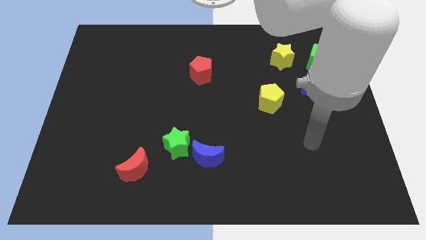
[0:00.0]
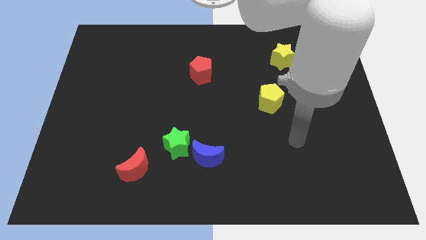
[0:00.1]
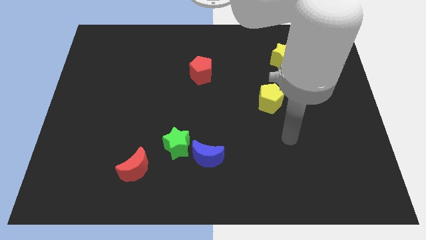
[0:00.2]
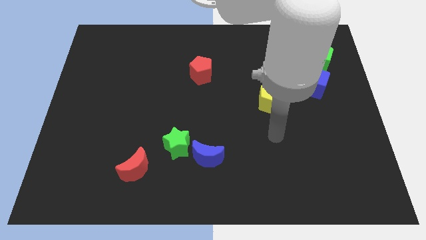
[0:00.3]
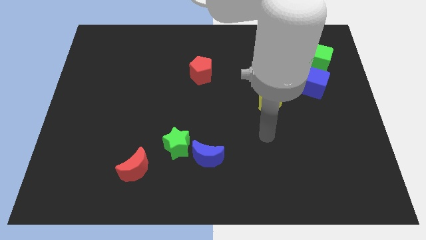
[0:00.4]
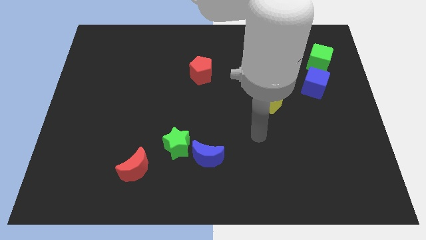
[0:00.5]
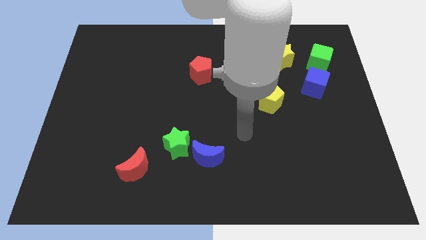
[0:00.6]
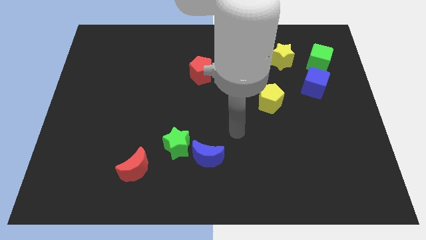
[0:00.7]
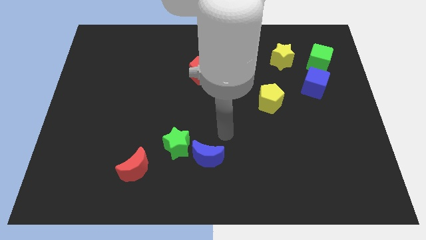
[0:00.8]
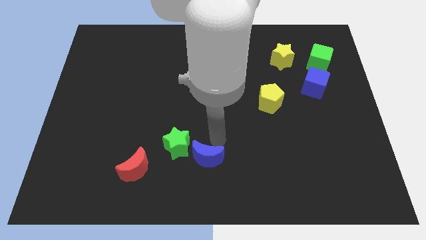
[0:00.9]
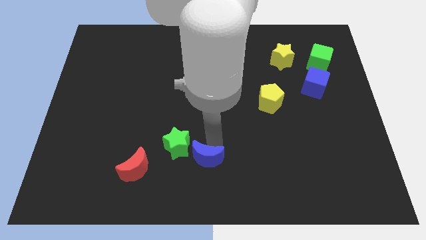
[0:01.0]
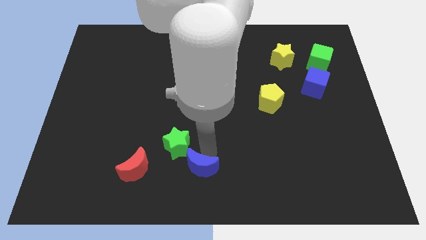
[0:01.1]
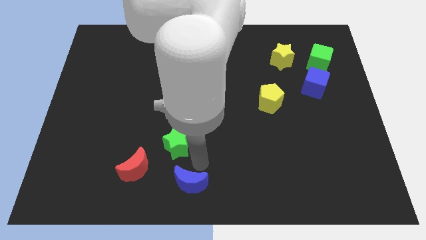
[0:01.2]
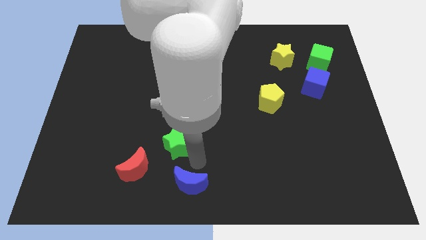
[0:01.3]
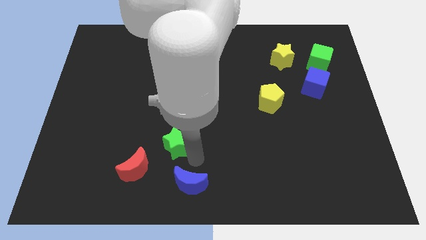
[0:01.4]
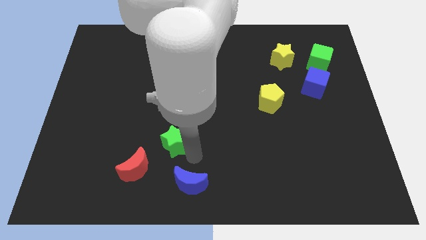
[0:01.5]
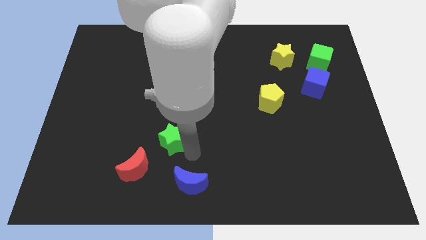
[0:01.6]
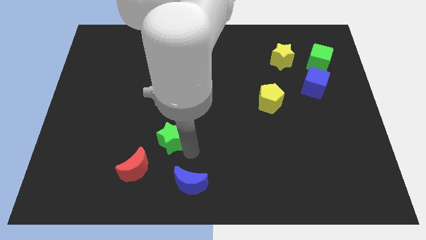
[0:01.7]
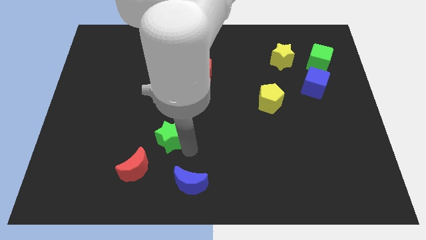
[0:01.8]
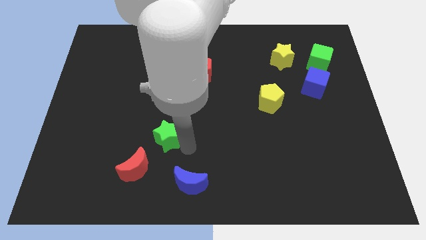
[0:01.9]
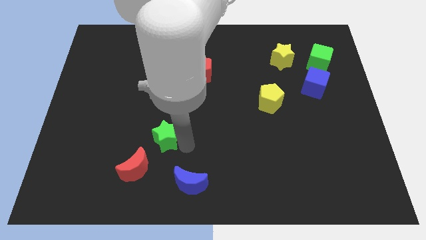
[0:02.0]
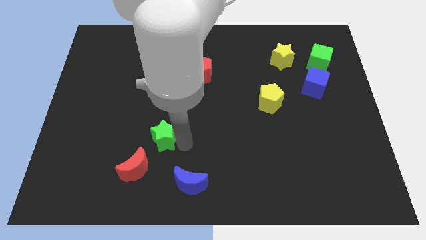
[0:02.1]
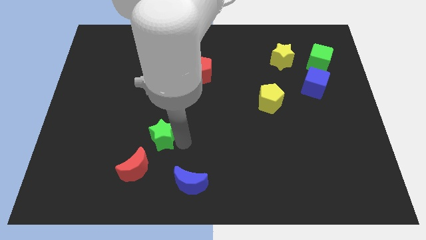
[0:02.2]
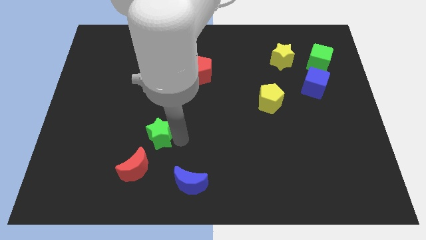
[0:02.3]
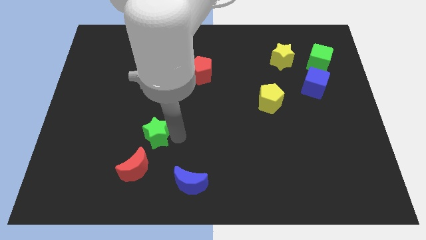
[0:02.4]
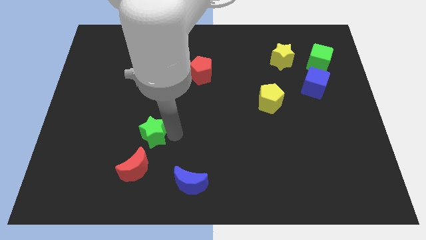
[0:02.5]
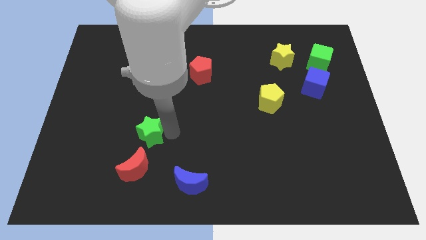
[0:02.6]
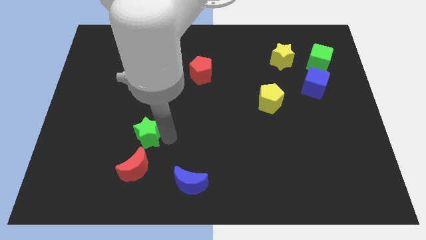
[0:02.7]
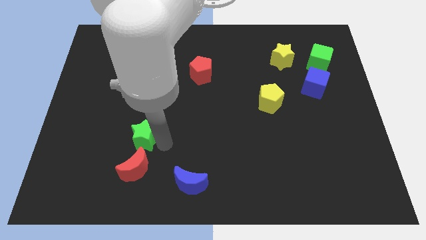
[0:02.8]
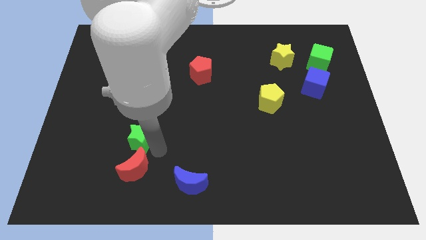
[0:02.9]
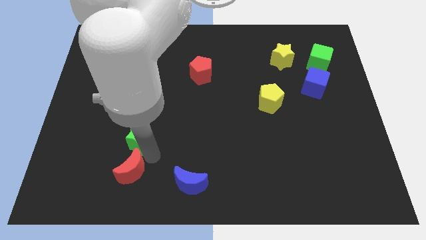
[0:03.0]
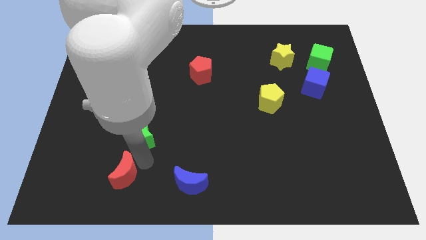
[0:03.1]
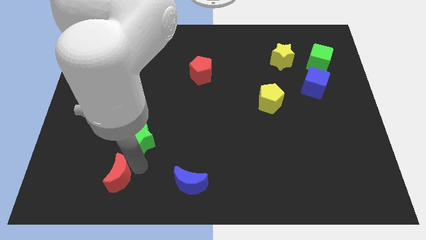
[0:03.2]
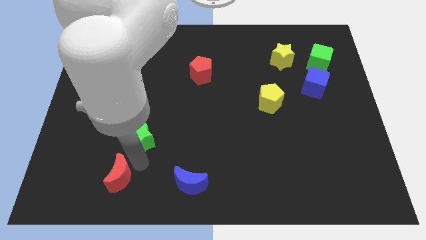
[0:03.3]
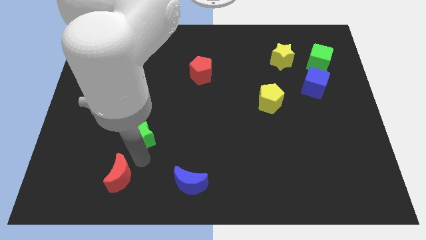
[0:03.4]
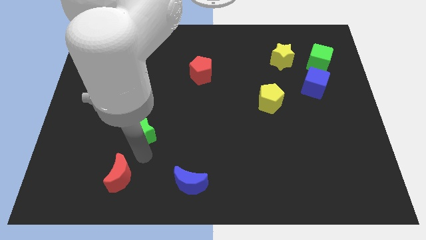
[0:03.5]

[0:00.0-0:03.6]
slide the green star a bit up and to the left

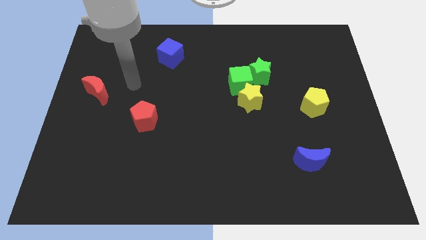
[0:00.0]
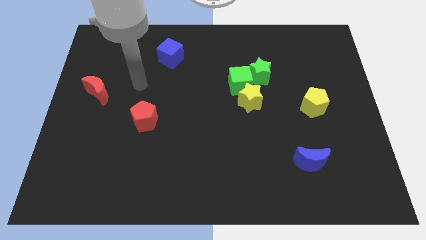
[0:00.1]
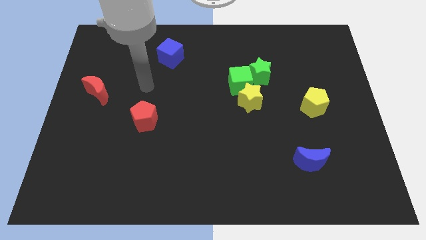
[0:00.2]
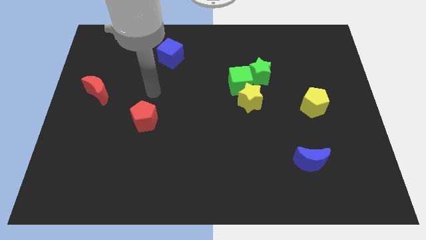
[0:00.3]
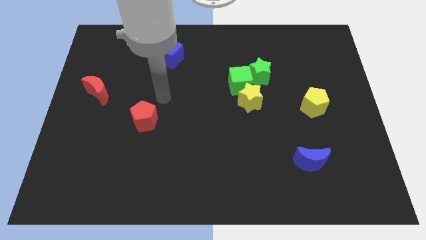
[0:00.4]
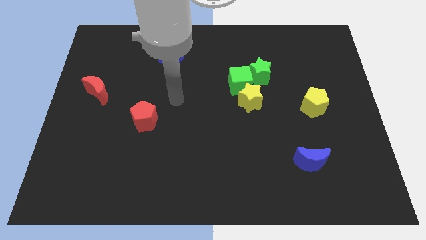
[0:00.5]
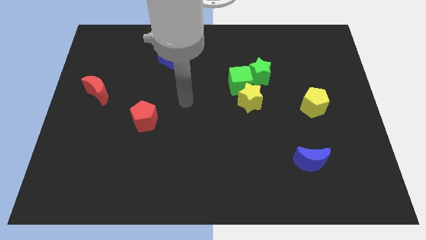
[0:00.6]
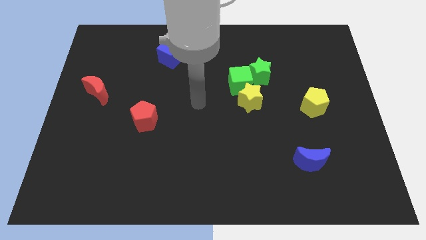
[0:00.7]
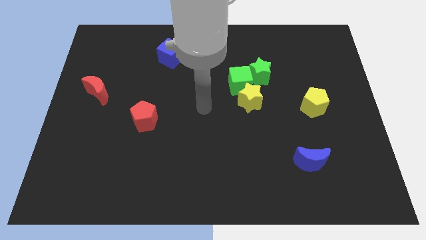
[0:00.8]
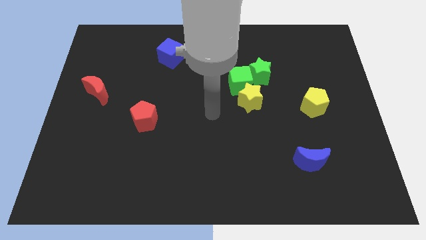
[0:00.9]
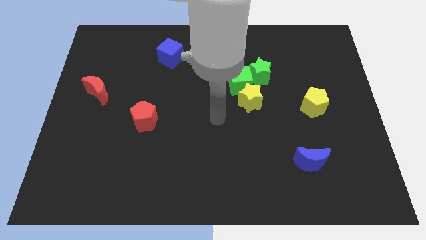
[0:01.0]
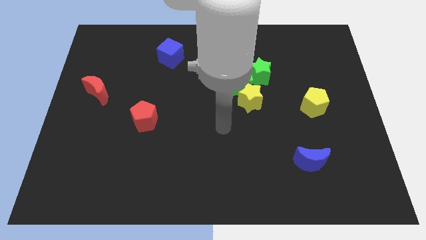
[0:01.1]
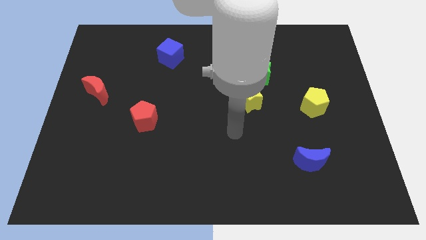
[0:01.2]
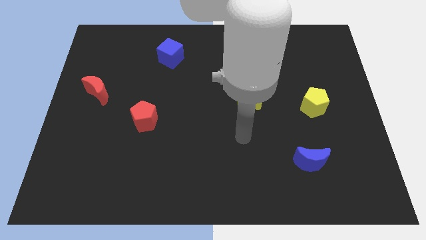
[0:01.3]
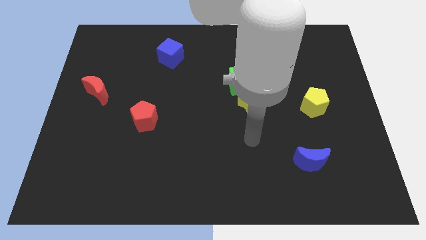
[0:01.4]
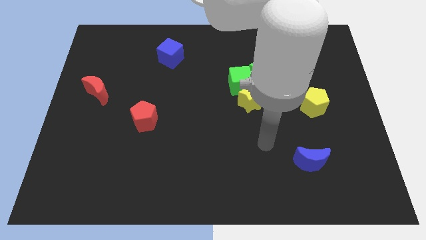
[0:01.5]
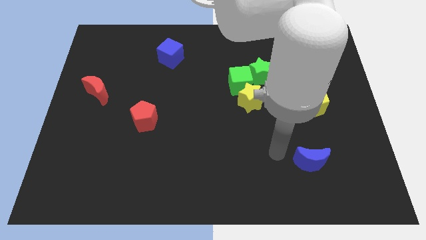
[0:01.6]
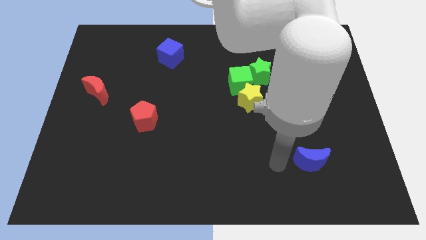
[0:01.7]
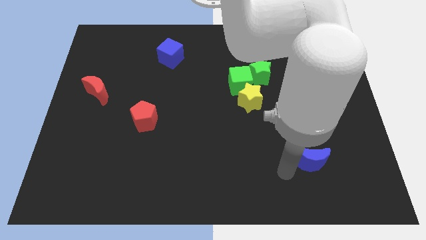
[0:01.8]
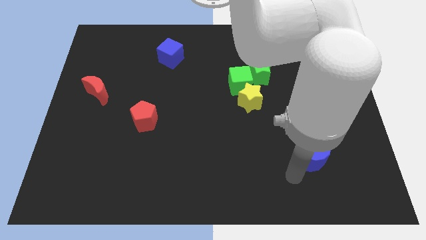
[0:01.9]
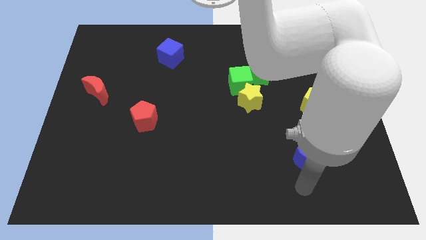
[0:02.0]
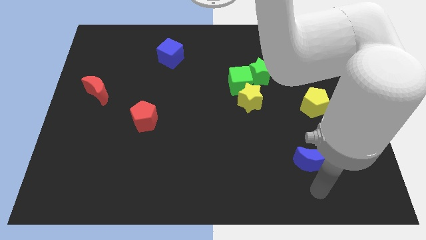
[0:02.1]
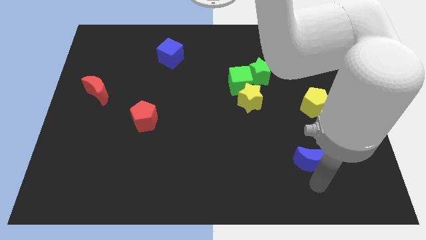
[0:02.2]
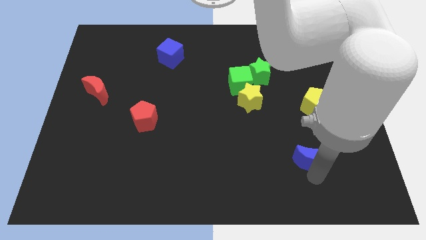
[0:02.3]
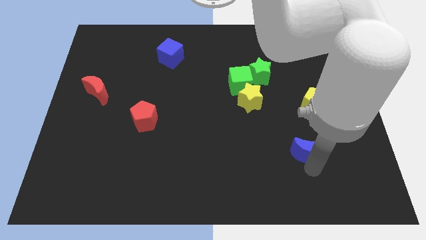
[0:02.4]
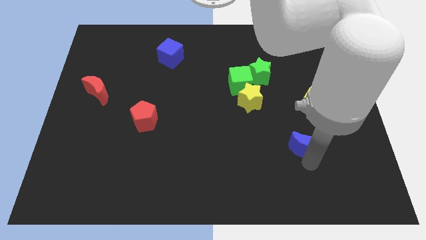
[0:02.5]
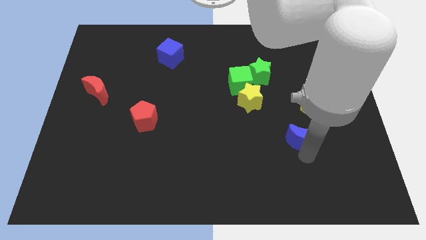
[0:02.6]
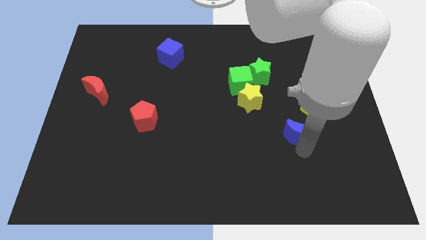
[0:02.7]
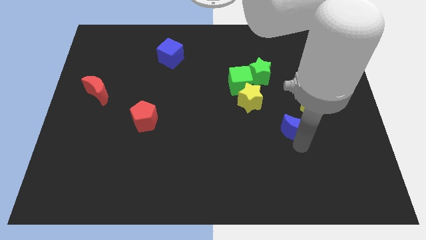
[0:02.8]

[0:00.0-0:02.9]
slide the blue moon upwards a little

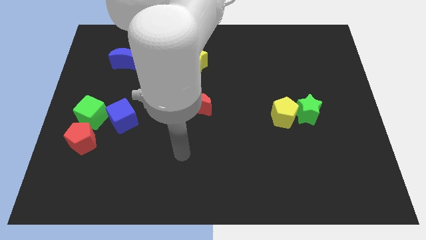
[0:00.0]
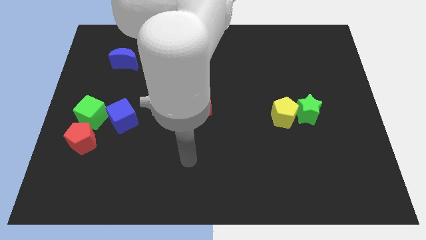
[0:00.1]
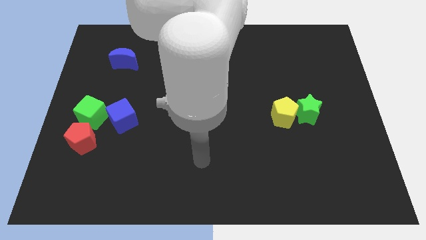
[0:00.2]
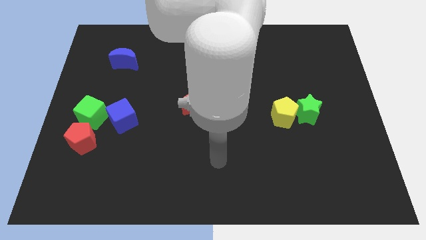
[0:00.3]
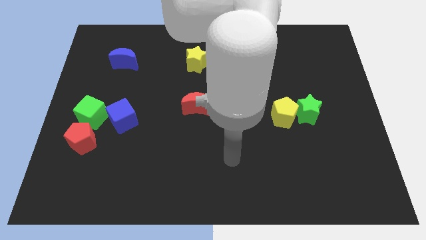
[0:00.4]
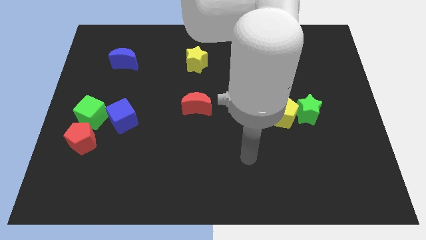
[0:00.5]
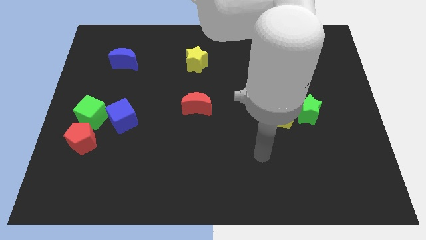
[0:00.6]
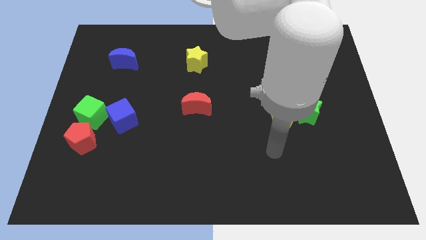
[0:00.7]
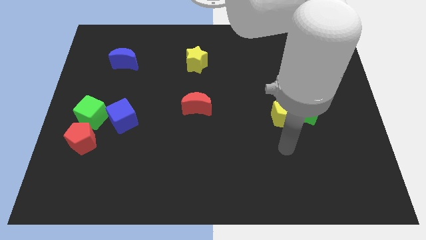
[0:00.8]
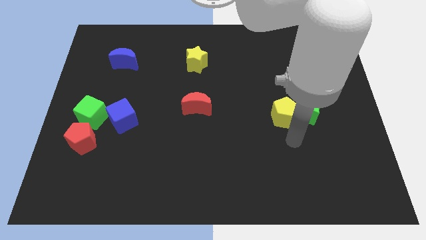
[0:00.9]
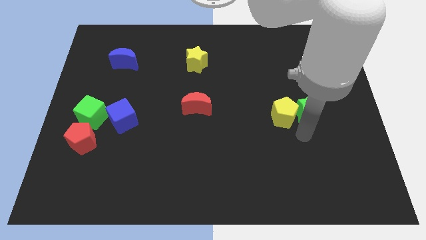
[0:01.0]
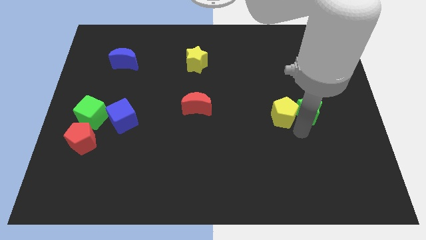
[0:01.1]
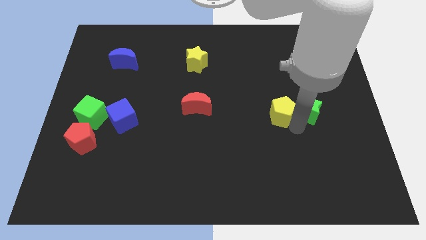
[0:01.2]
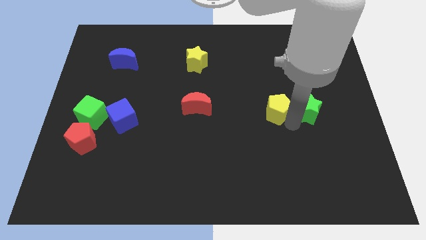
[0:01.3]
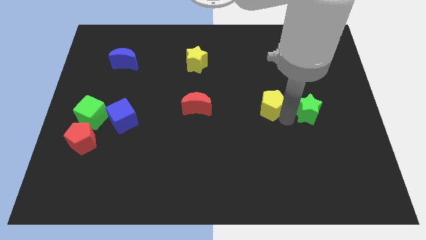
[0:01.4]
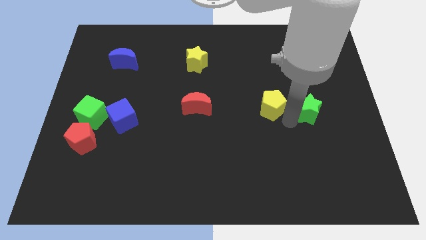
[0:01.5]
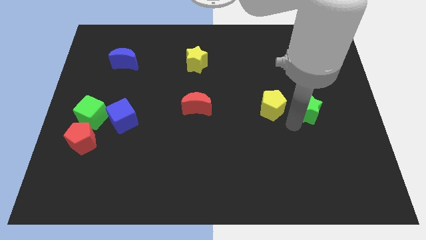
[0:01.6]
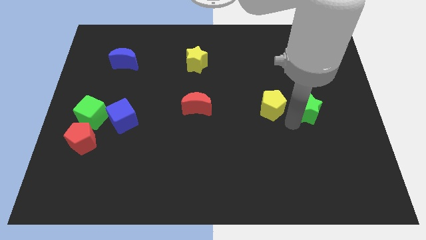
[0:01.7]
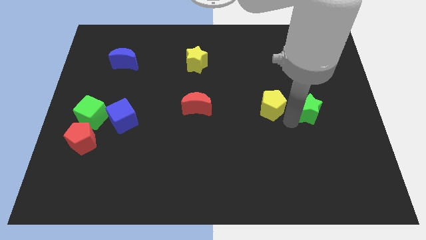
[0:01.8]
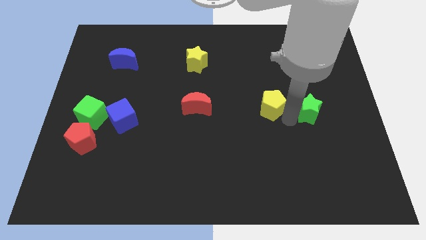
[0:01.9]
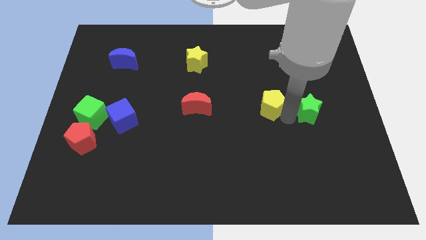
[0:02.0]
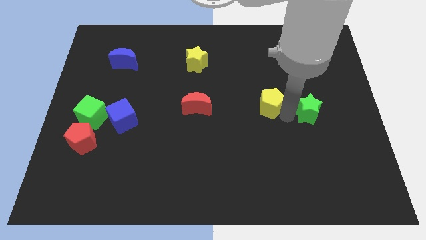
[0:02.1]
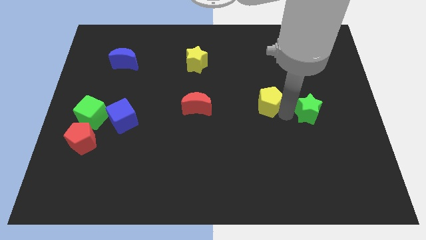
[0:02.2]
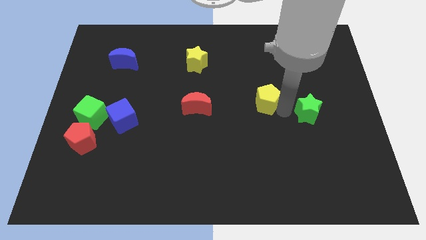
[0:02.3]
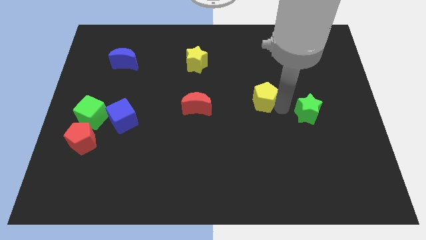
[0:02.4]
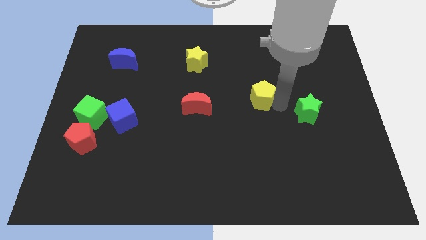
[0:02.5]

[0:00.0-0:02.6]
push the yellow pentagon upwards and then to the left a bit
